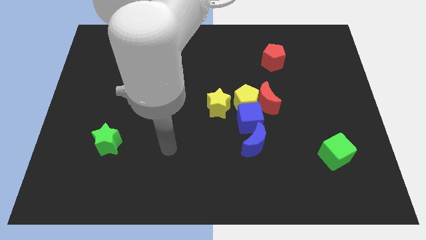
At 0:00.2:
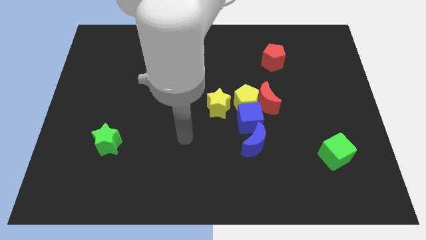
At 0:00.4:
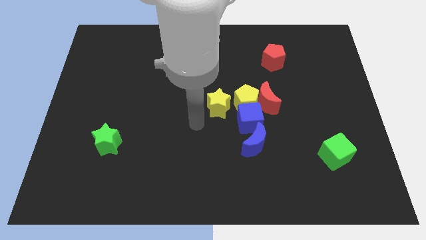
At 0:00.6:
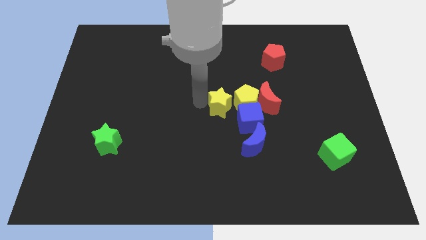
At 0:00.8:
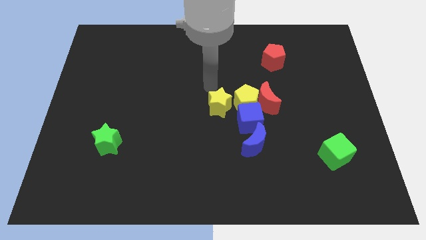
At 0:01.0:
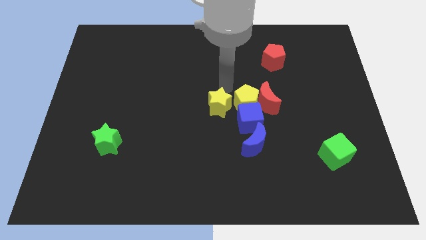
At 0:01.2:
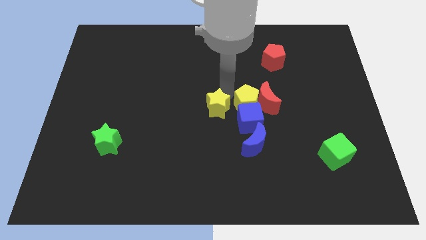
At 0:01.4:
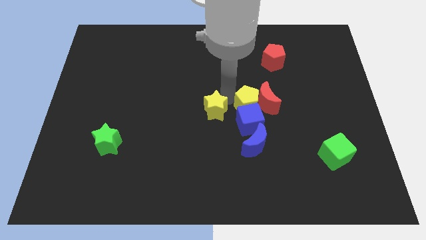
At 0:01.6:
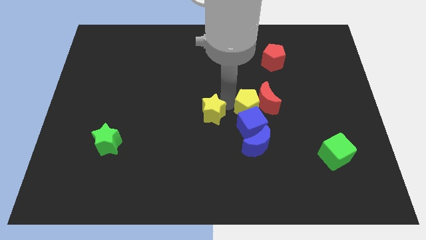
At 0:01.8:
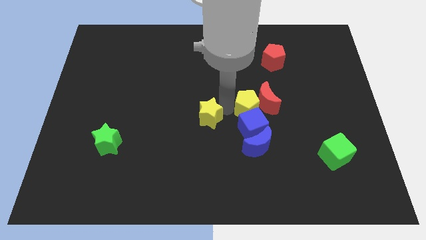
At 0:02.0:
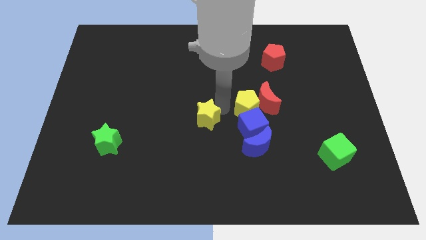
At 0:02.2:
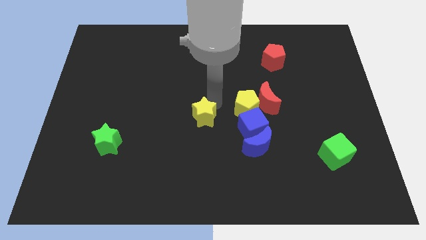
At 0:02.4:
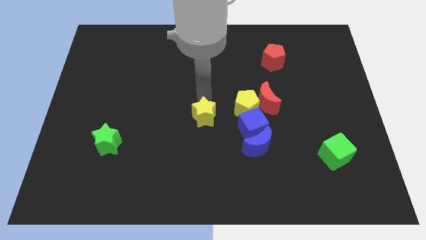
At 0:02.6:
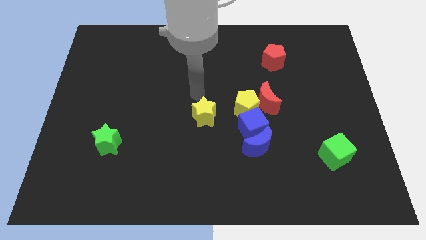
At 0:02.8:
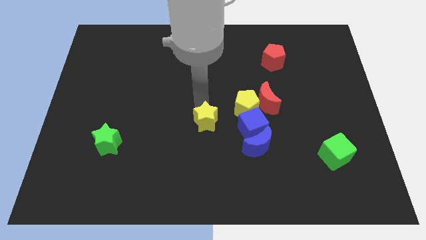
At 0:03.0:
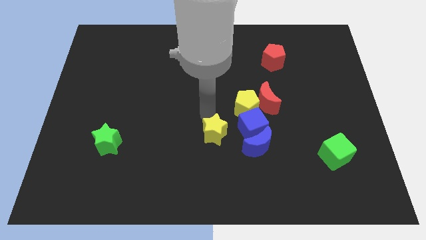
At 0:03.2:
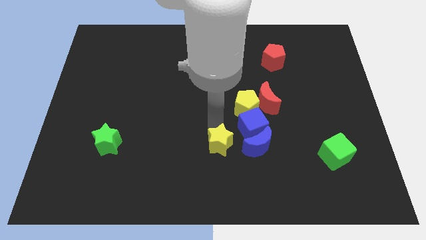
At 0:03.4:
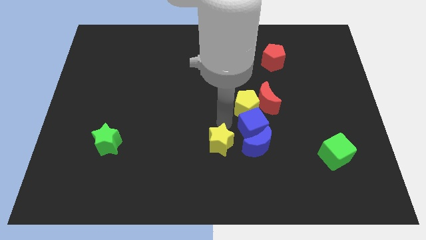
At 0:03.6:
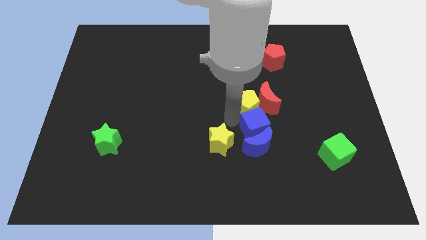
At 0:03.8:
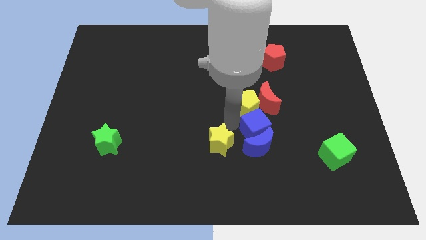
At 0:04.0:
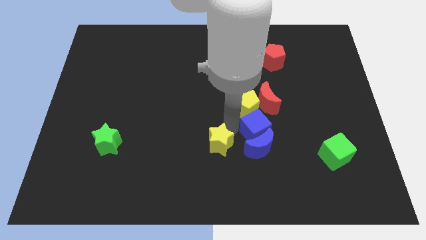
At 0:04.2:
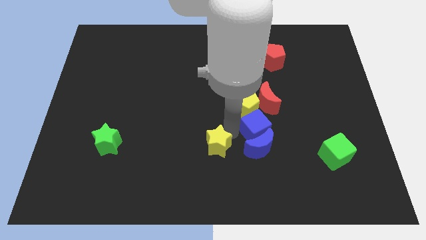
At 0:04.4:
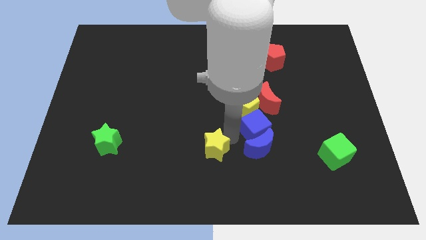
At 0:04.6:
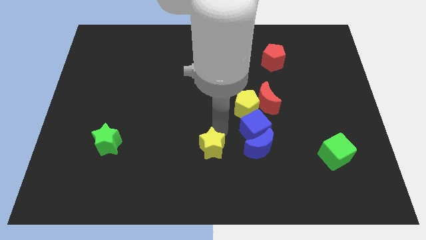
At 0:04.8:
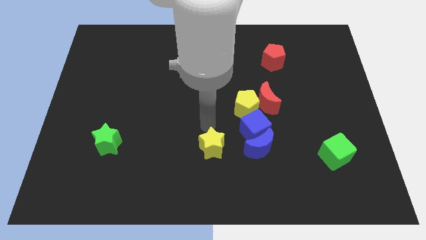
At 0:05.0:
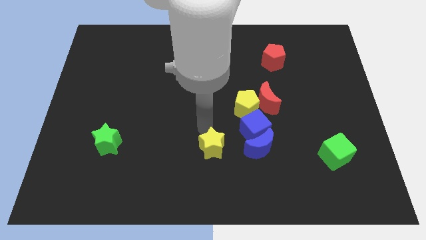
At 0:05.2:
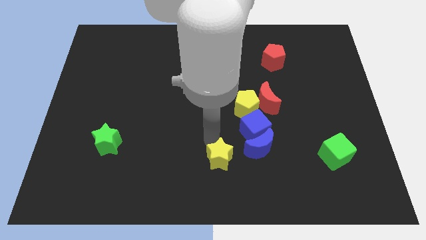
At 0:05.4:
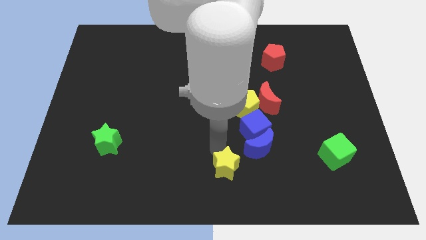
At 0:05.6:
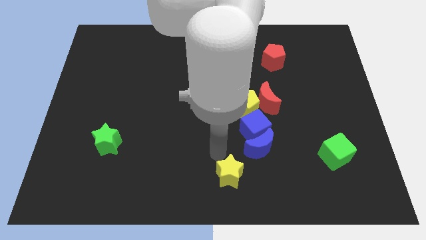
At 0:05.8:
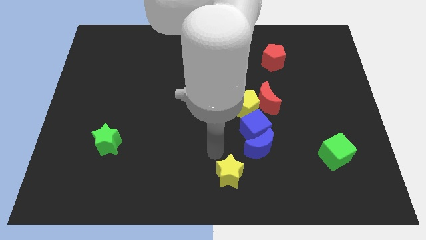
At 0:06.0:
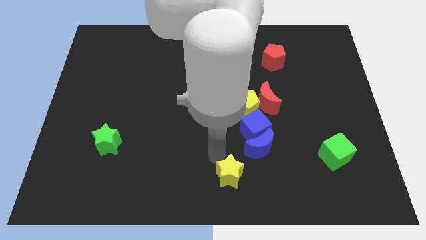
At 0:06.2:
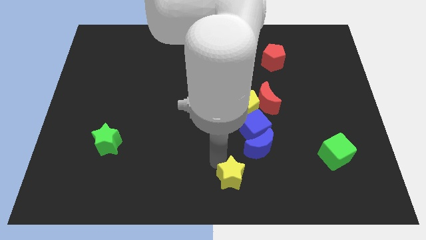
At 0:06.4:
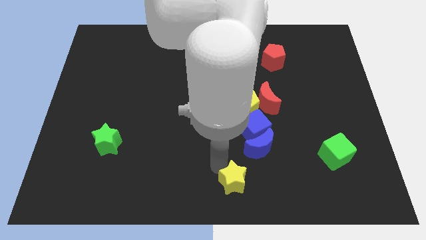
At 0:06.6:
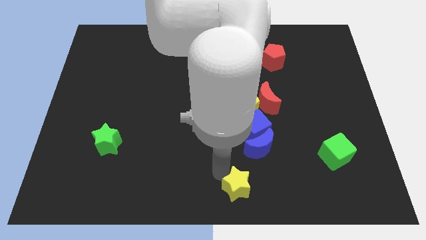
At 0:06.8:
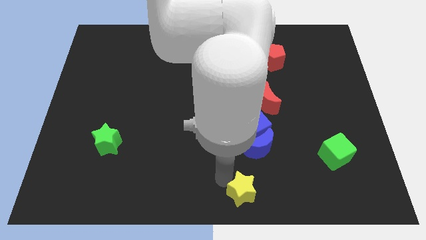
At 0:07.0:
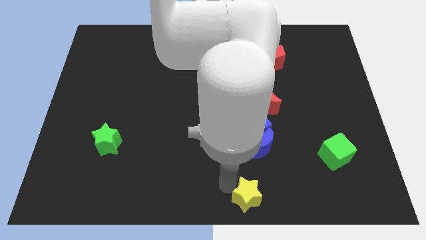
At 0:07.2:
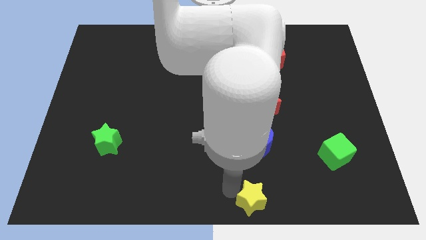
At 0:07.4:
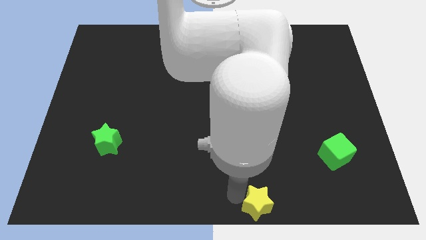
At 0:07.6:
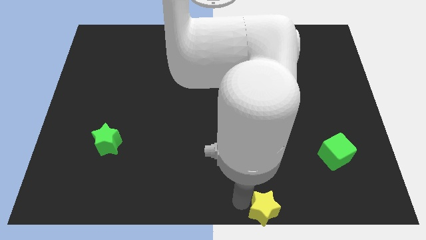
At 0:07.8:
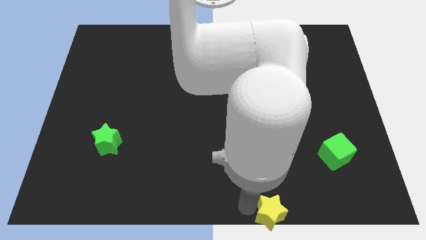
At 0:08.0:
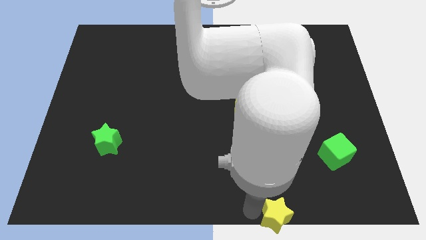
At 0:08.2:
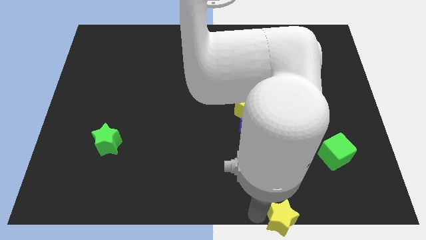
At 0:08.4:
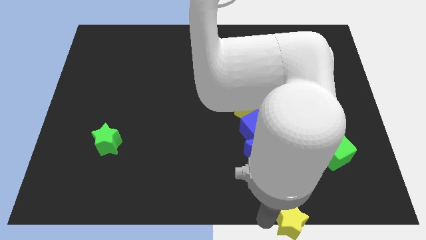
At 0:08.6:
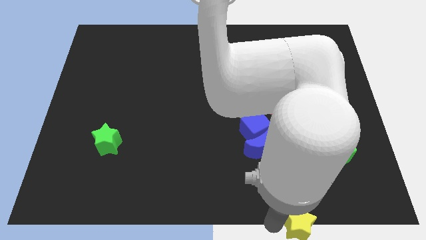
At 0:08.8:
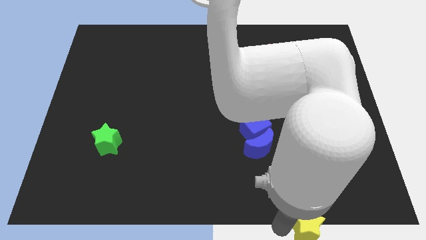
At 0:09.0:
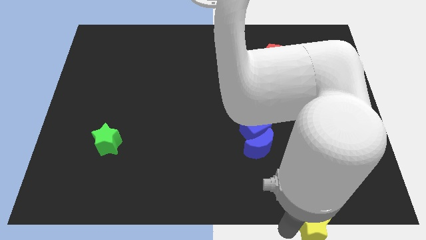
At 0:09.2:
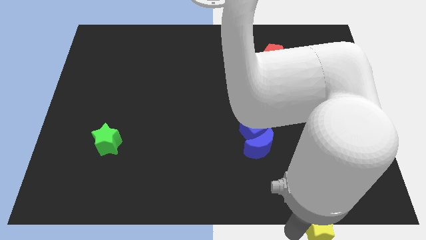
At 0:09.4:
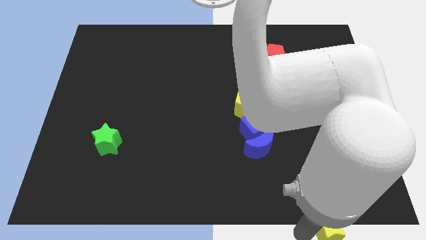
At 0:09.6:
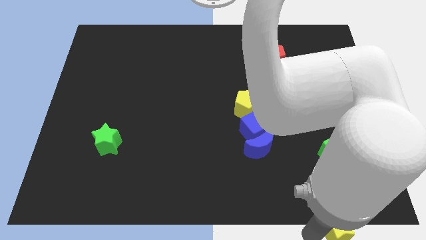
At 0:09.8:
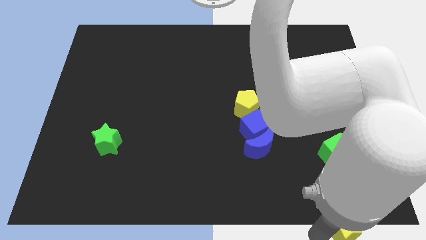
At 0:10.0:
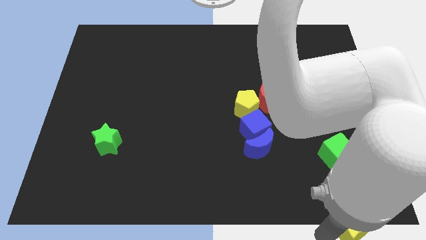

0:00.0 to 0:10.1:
put the yellow star to the lower right corner

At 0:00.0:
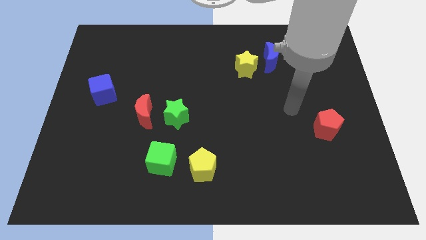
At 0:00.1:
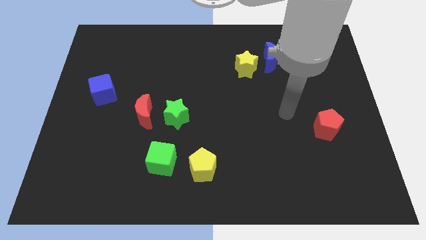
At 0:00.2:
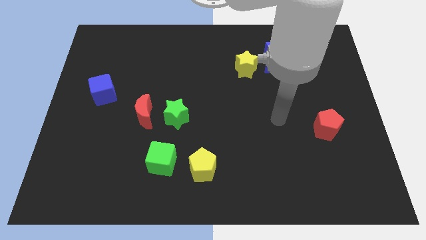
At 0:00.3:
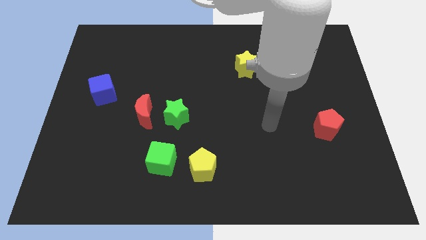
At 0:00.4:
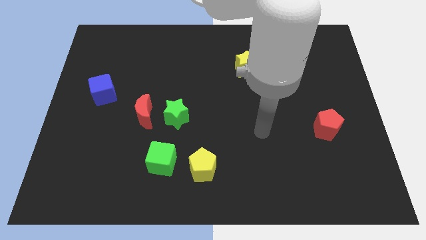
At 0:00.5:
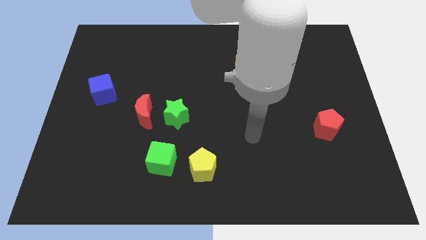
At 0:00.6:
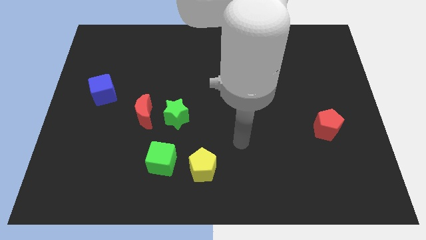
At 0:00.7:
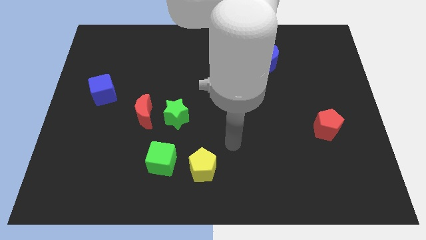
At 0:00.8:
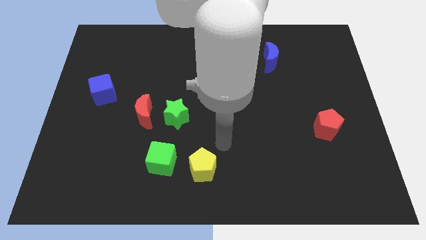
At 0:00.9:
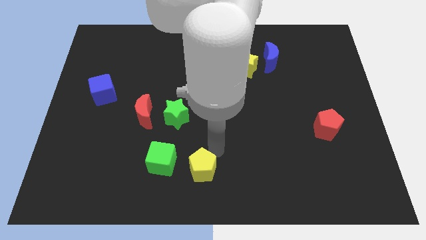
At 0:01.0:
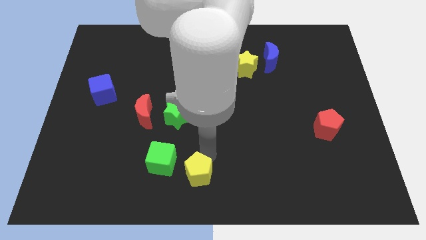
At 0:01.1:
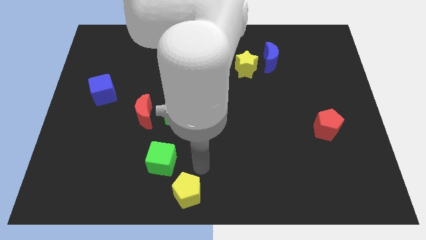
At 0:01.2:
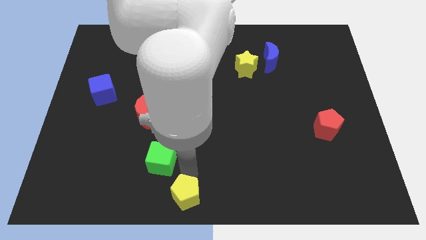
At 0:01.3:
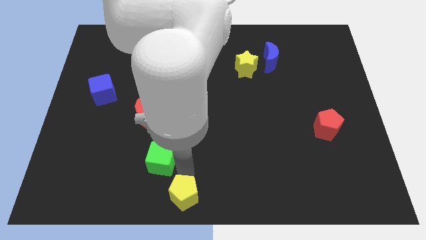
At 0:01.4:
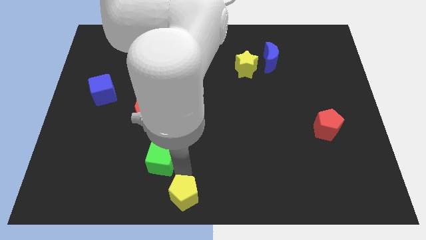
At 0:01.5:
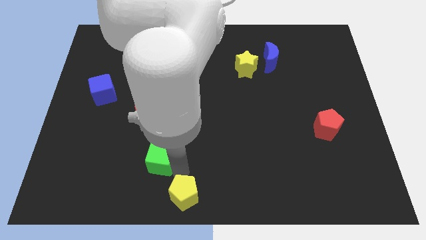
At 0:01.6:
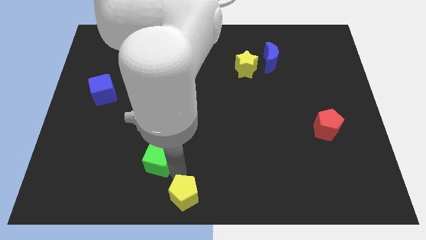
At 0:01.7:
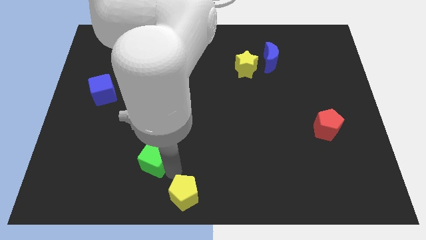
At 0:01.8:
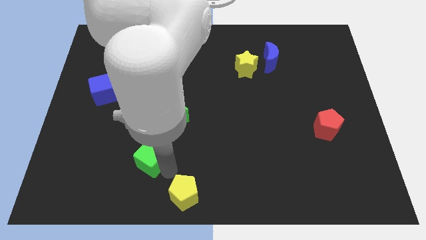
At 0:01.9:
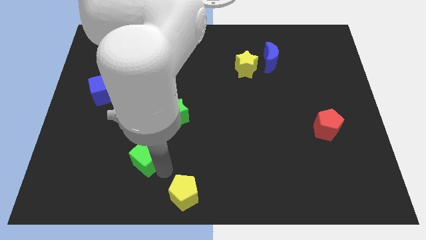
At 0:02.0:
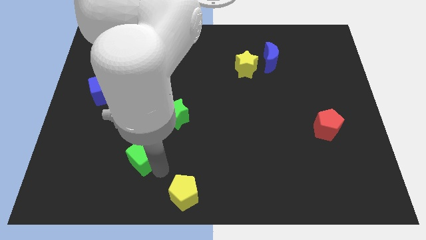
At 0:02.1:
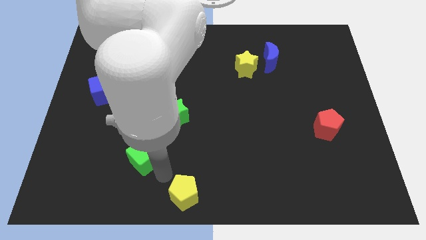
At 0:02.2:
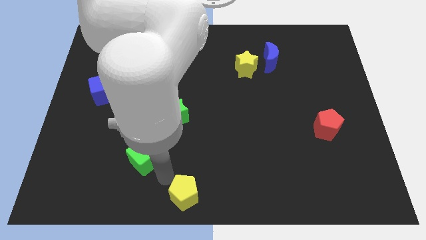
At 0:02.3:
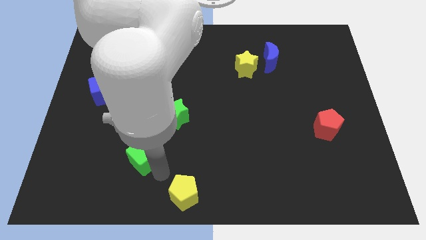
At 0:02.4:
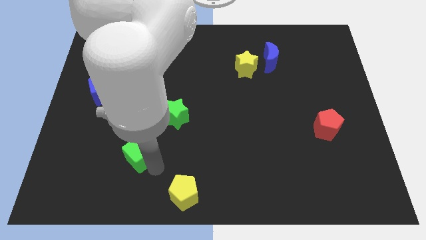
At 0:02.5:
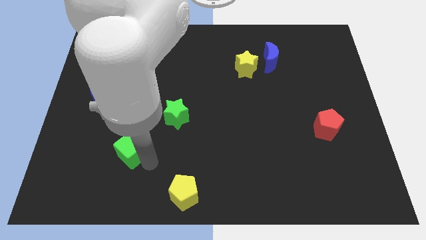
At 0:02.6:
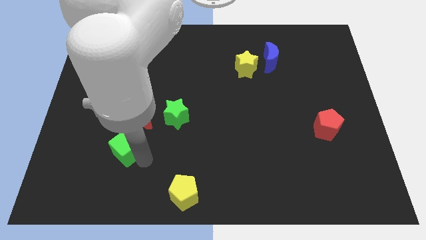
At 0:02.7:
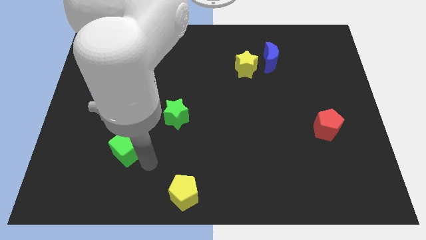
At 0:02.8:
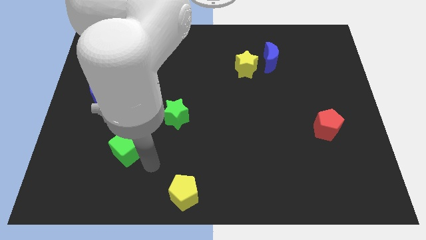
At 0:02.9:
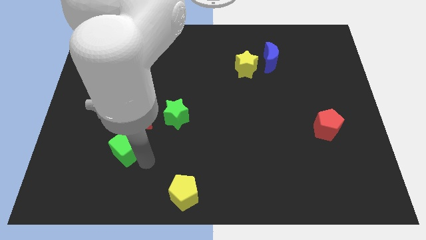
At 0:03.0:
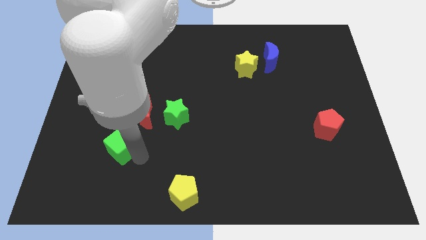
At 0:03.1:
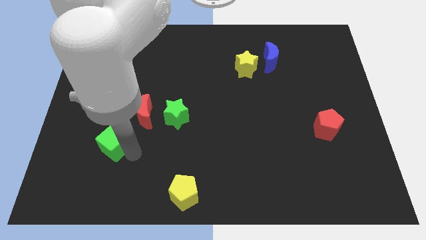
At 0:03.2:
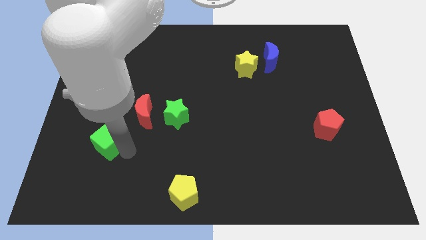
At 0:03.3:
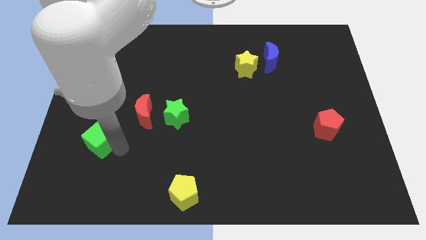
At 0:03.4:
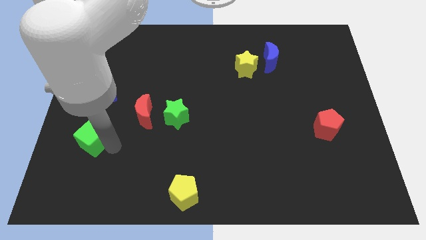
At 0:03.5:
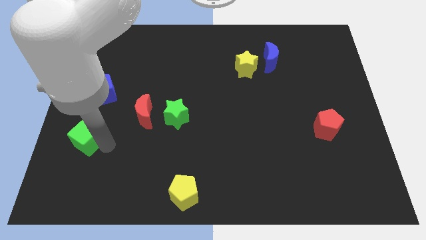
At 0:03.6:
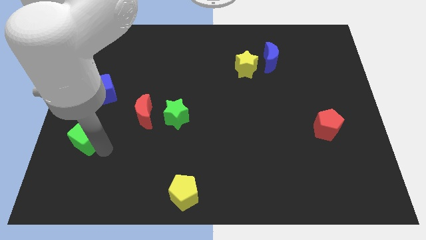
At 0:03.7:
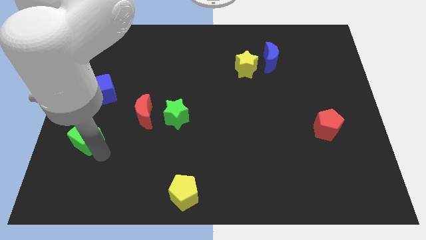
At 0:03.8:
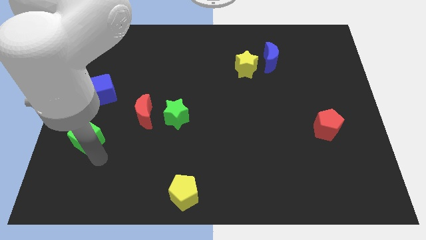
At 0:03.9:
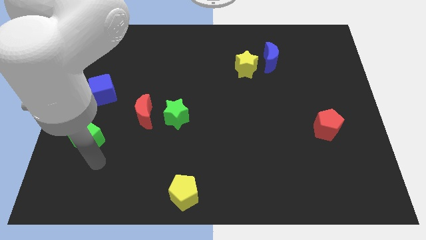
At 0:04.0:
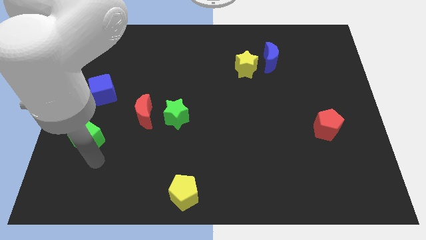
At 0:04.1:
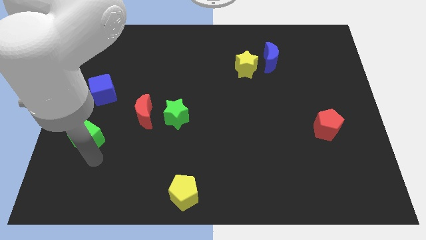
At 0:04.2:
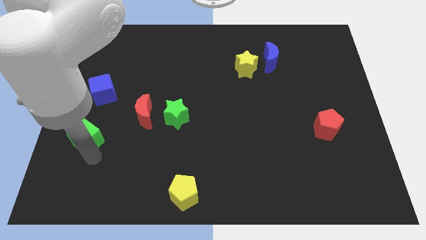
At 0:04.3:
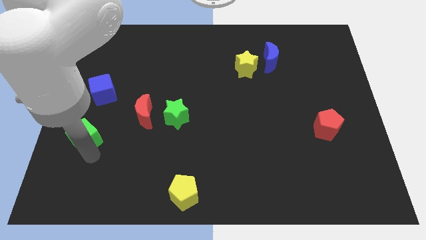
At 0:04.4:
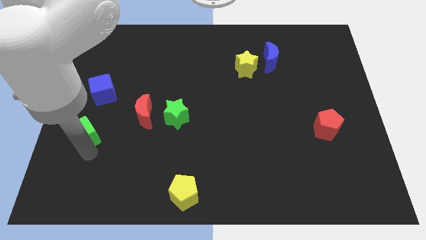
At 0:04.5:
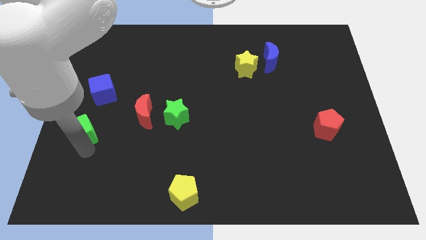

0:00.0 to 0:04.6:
put the green cube to the left side
